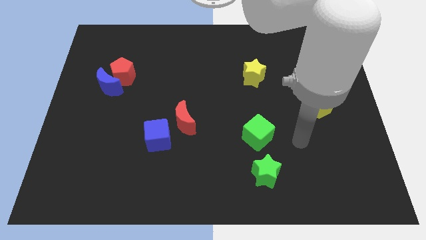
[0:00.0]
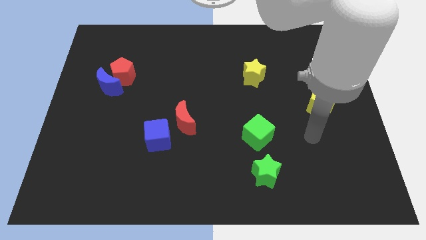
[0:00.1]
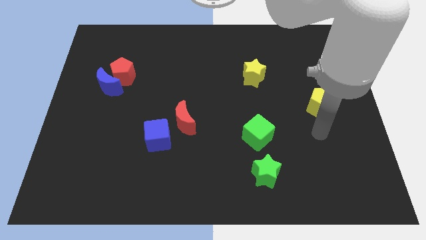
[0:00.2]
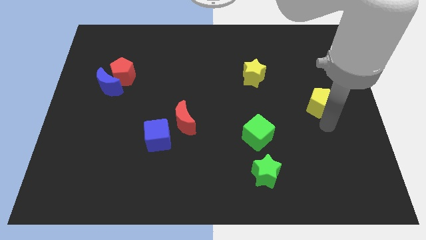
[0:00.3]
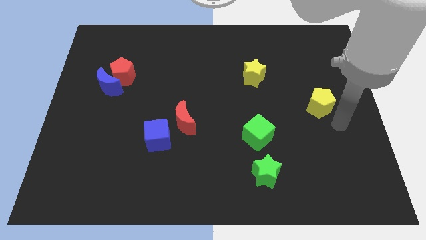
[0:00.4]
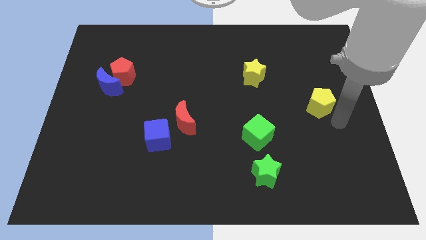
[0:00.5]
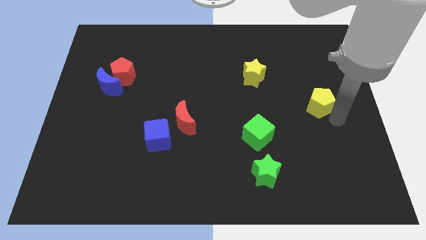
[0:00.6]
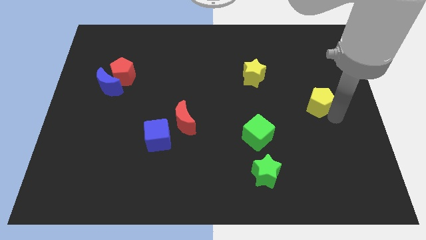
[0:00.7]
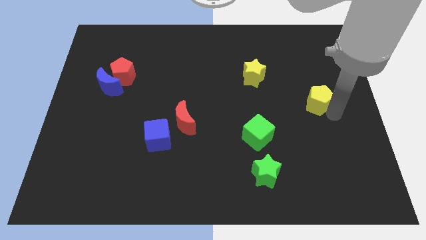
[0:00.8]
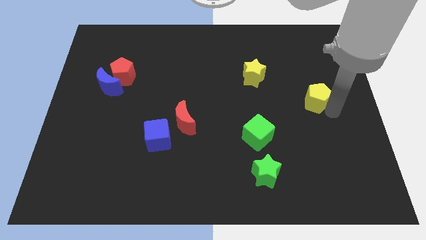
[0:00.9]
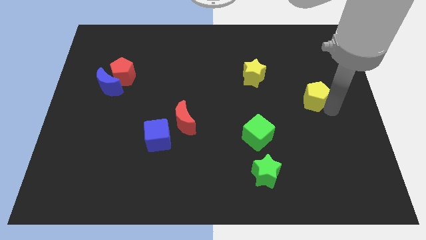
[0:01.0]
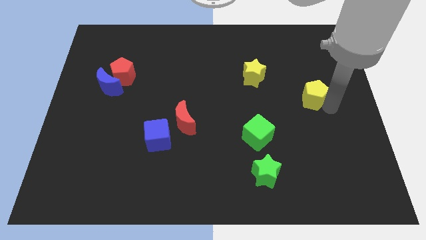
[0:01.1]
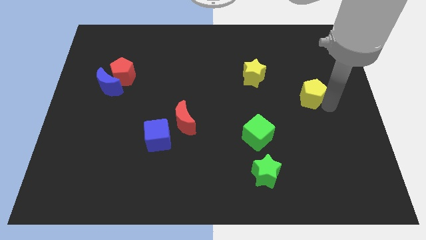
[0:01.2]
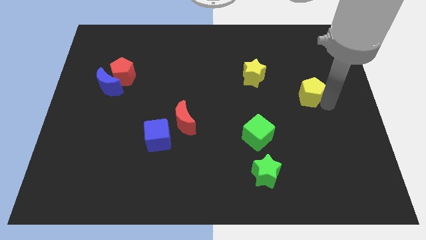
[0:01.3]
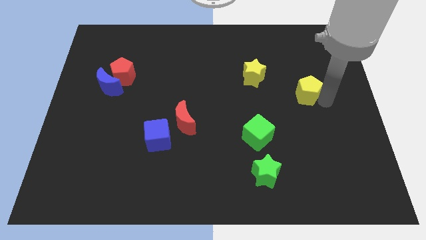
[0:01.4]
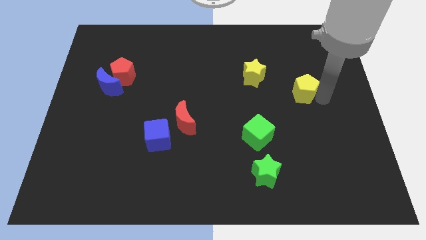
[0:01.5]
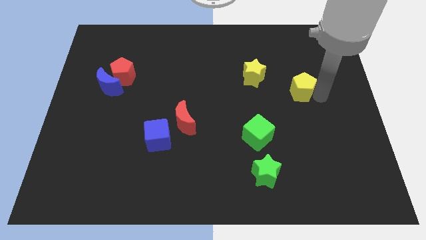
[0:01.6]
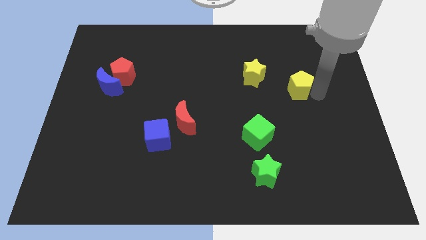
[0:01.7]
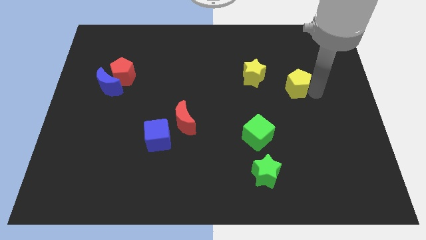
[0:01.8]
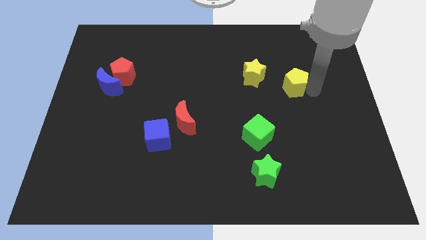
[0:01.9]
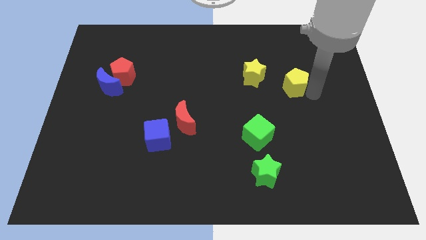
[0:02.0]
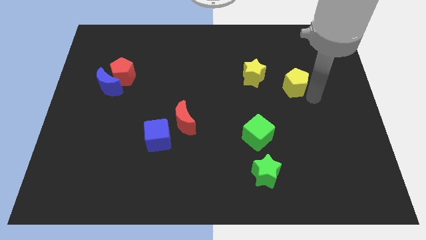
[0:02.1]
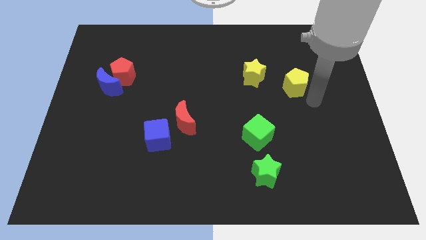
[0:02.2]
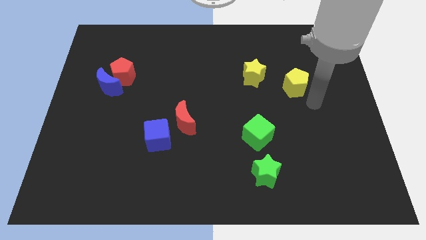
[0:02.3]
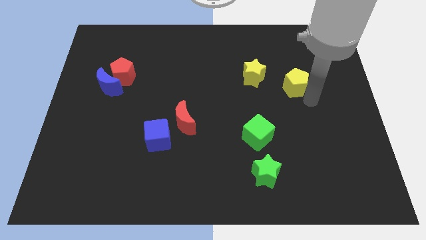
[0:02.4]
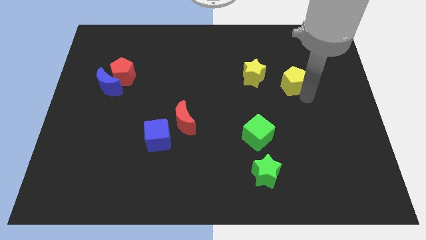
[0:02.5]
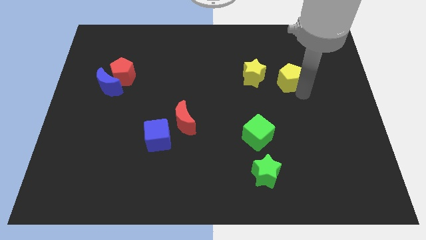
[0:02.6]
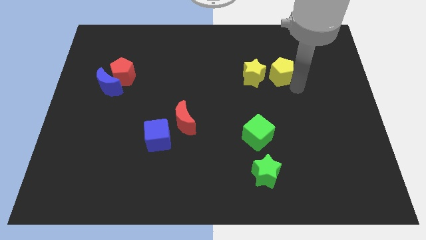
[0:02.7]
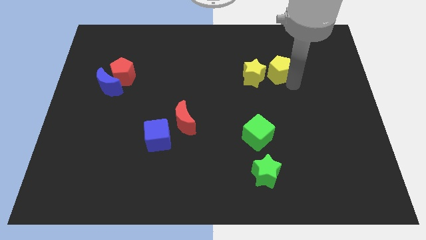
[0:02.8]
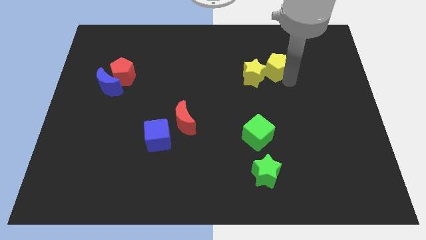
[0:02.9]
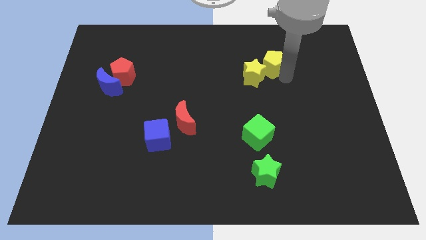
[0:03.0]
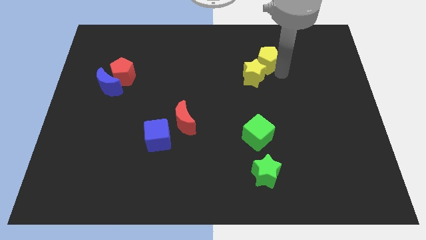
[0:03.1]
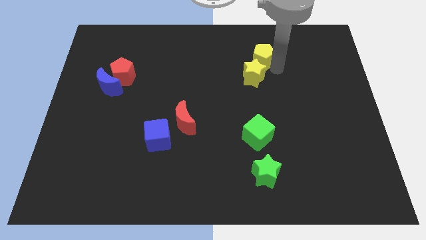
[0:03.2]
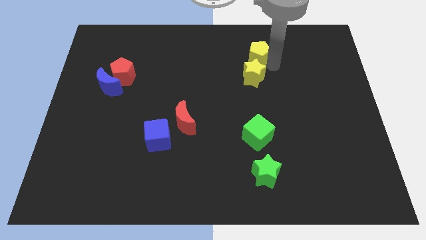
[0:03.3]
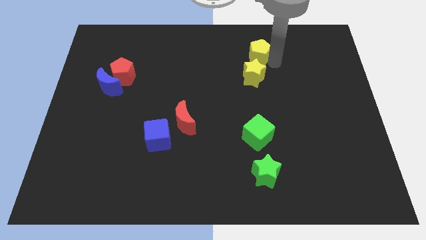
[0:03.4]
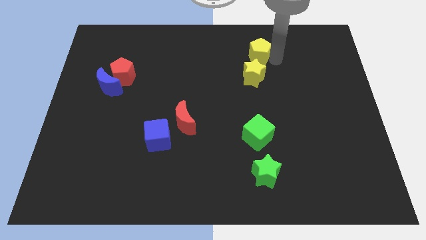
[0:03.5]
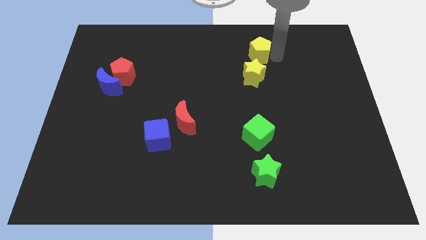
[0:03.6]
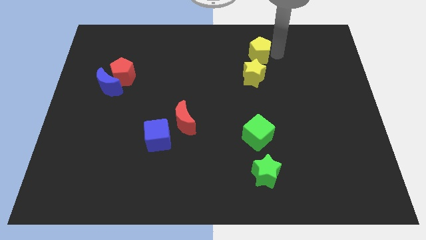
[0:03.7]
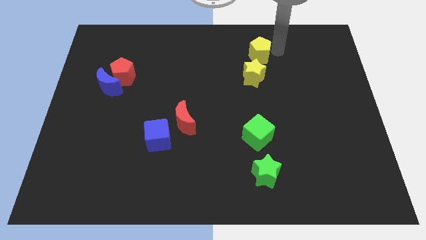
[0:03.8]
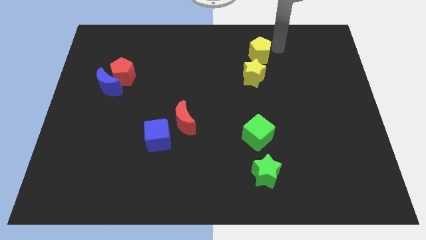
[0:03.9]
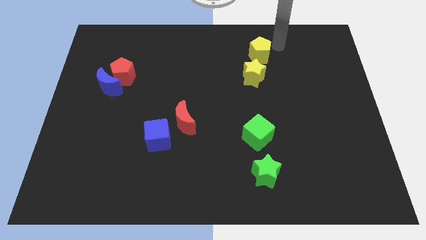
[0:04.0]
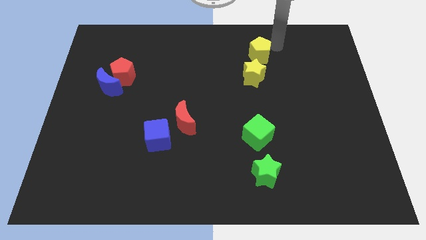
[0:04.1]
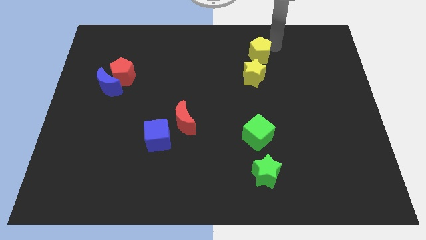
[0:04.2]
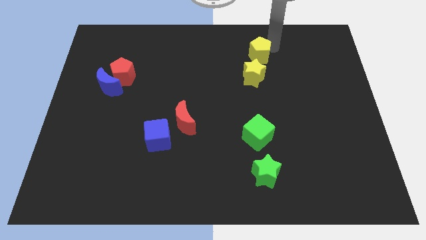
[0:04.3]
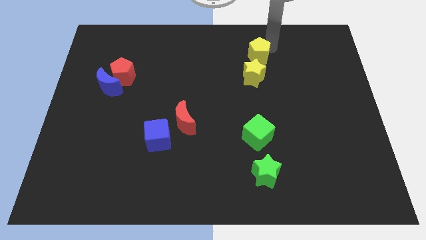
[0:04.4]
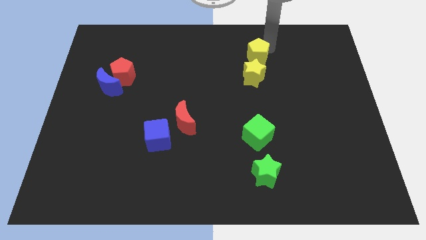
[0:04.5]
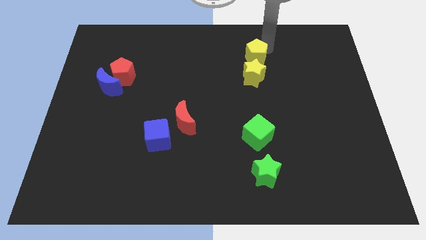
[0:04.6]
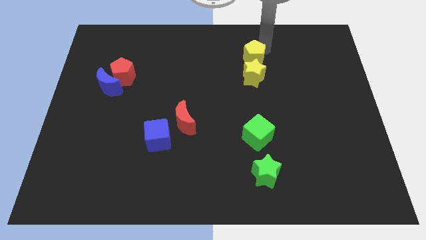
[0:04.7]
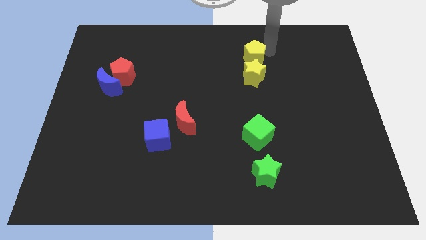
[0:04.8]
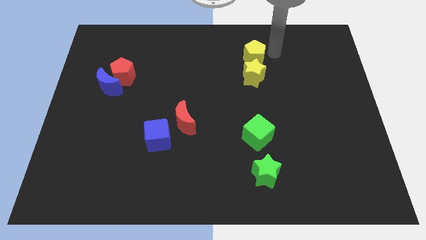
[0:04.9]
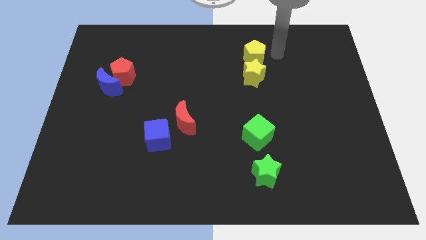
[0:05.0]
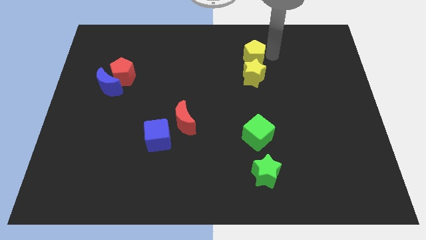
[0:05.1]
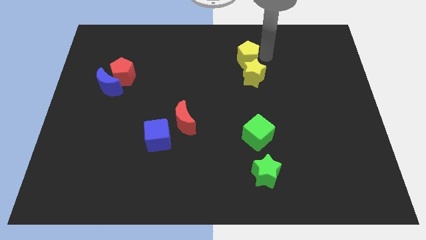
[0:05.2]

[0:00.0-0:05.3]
push the yellow pentagon to the top left of the yellow star

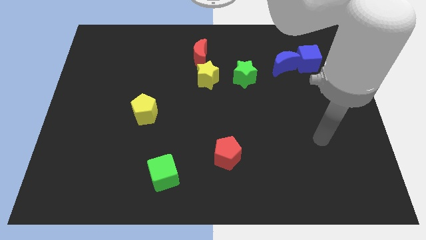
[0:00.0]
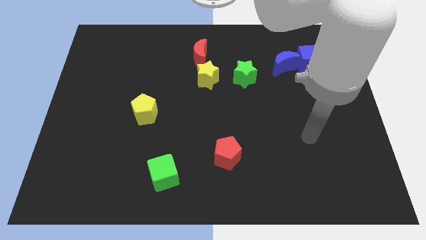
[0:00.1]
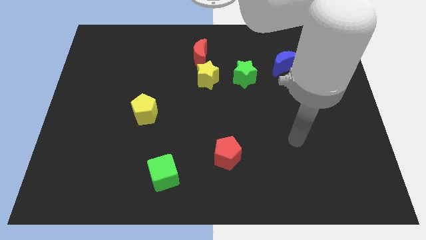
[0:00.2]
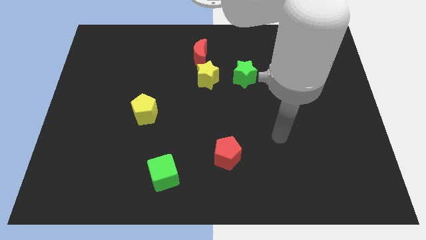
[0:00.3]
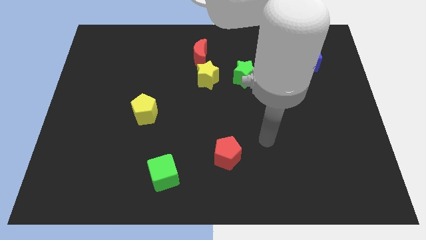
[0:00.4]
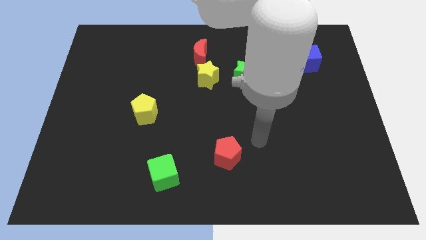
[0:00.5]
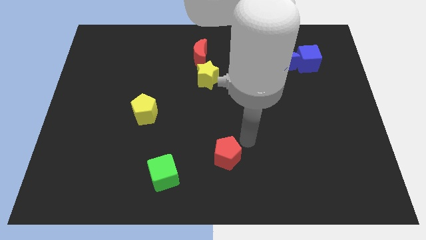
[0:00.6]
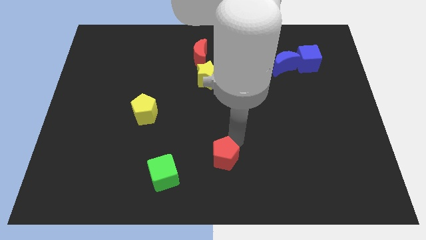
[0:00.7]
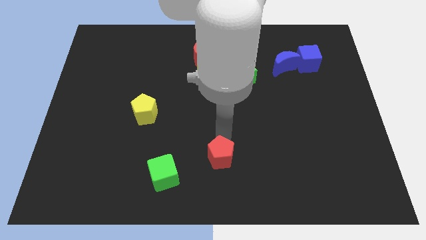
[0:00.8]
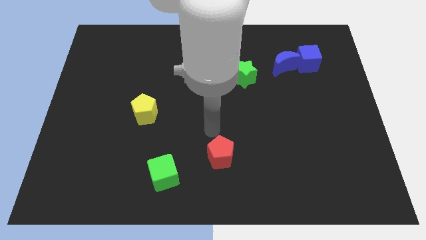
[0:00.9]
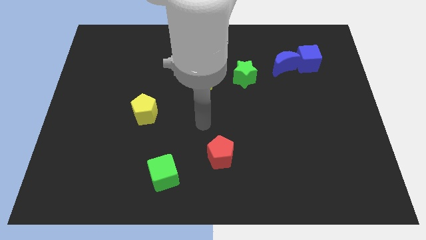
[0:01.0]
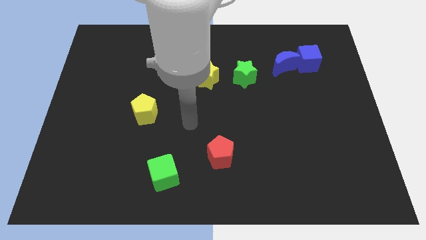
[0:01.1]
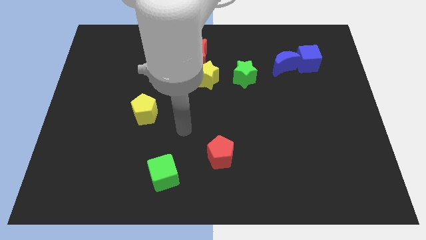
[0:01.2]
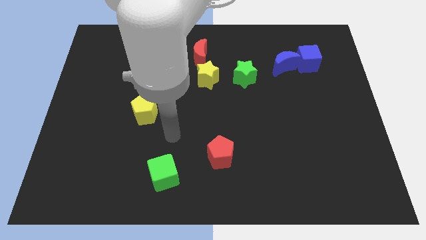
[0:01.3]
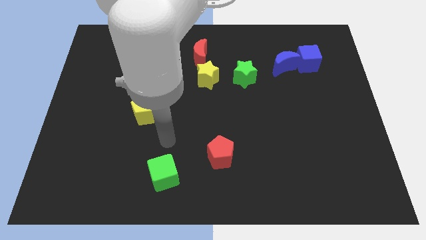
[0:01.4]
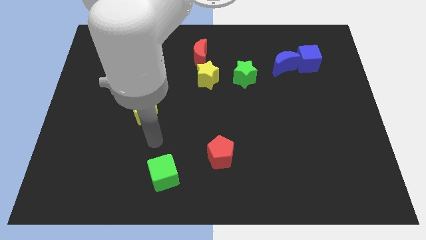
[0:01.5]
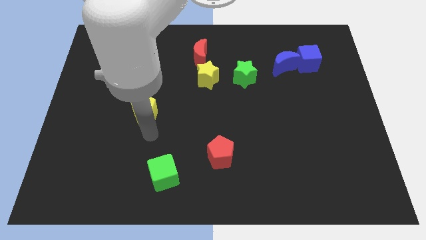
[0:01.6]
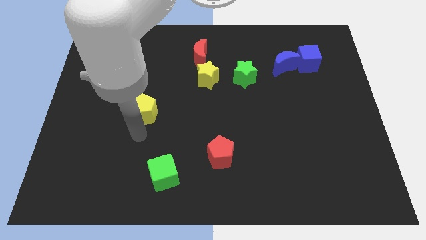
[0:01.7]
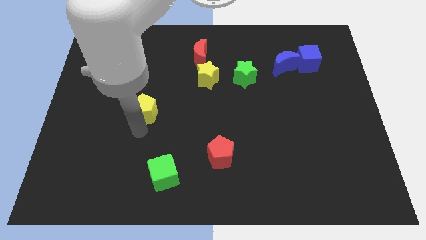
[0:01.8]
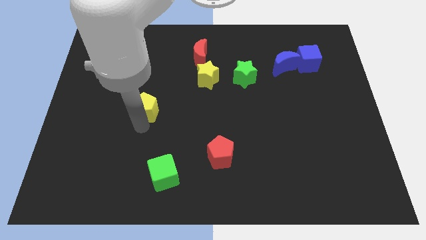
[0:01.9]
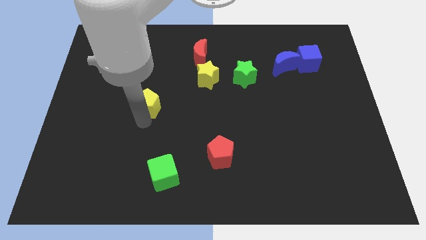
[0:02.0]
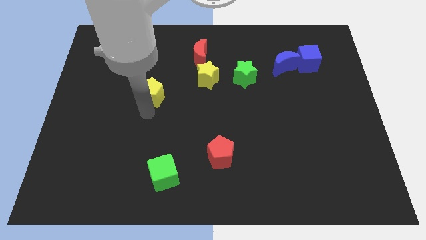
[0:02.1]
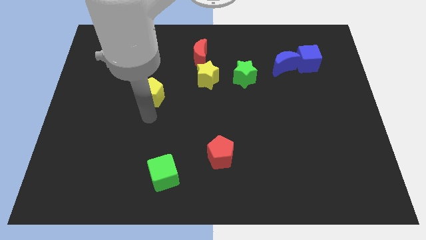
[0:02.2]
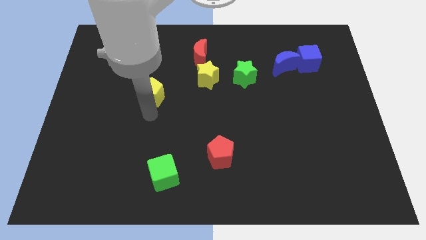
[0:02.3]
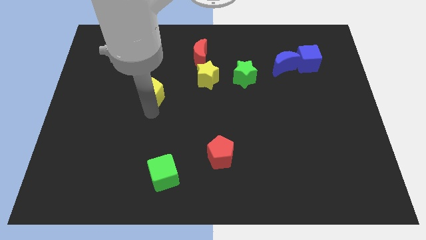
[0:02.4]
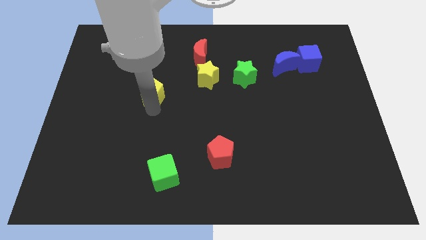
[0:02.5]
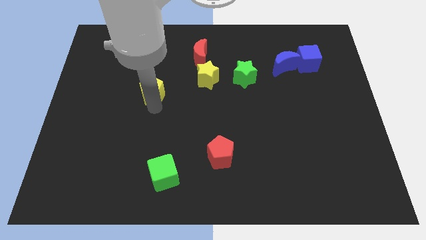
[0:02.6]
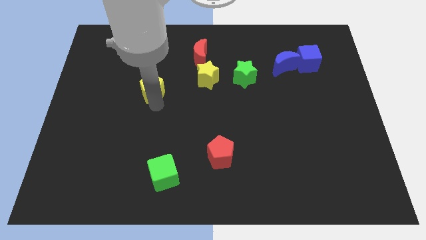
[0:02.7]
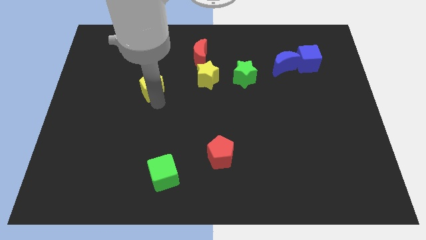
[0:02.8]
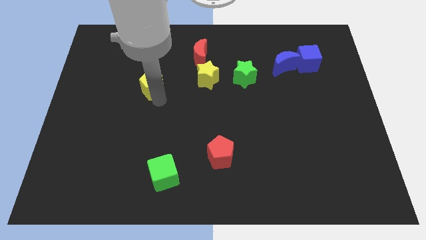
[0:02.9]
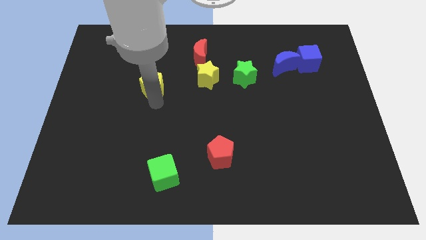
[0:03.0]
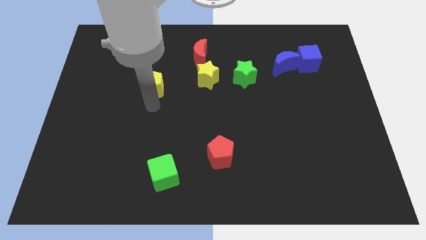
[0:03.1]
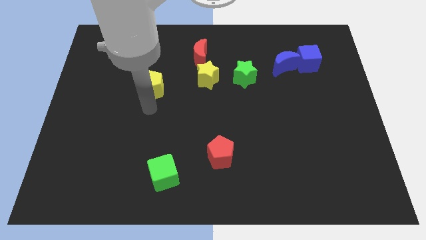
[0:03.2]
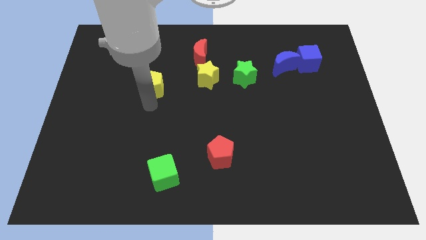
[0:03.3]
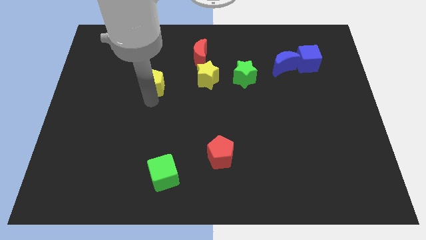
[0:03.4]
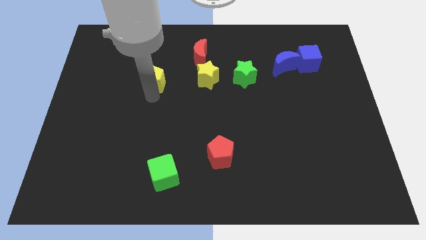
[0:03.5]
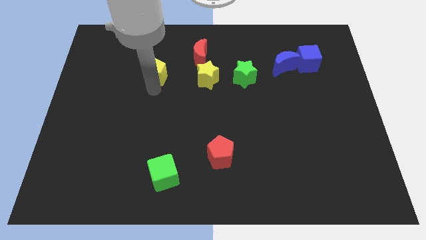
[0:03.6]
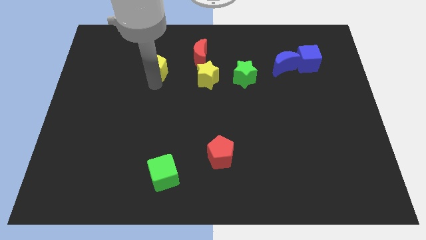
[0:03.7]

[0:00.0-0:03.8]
put the yellow pentagon left of the red moon
